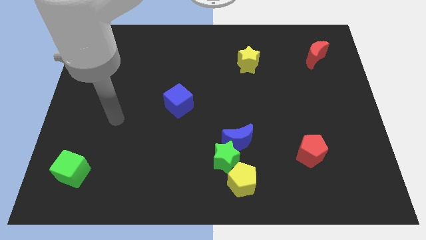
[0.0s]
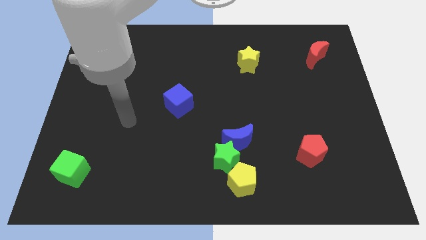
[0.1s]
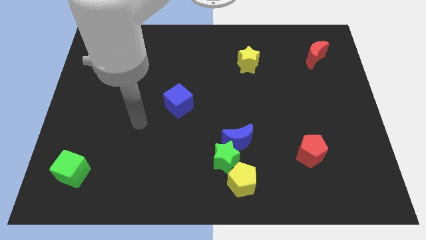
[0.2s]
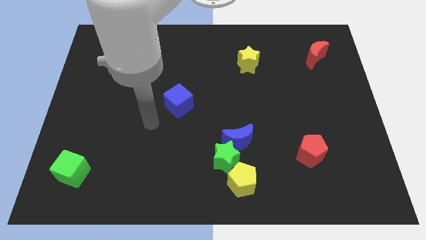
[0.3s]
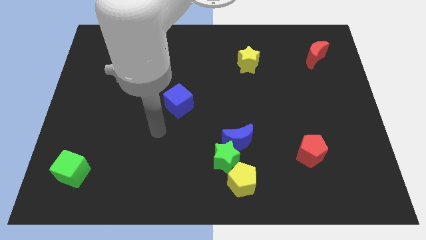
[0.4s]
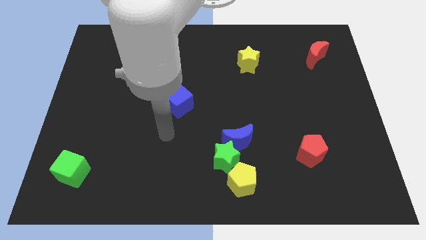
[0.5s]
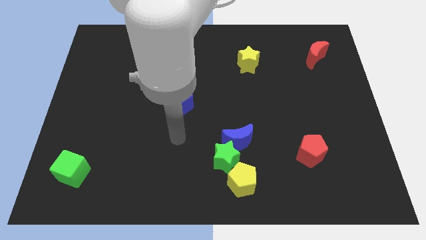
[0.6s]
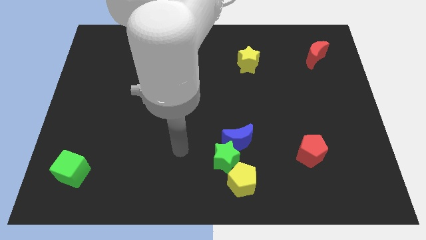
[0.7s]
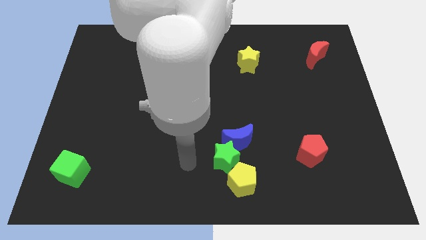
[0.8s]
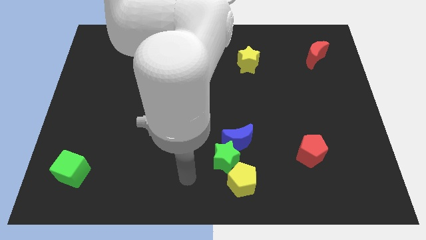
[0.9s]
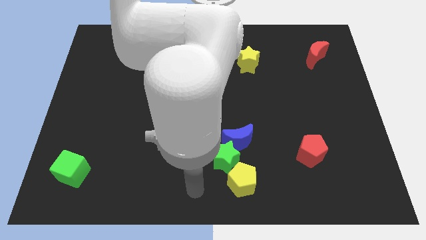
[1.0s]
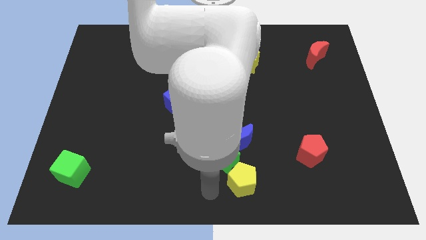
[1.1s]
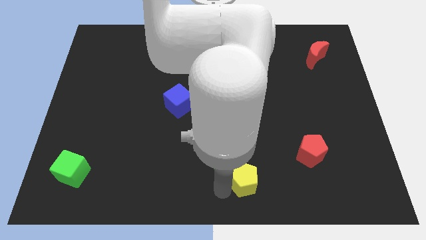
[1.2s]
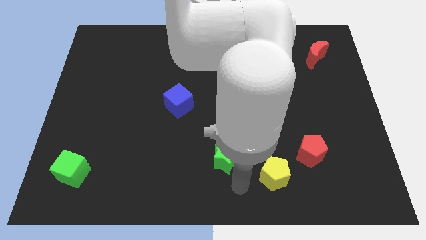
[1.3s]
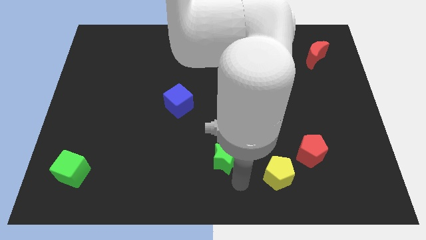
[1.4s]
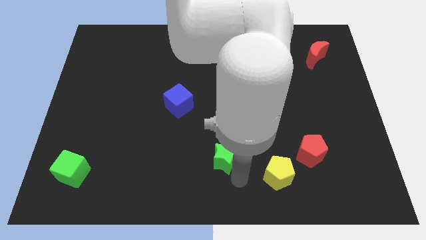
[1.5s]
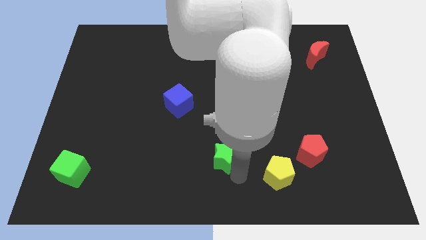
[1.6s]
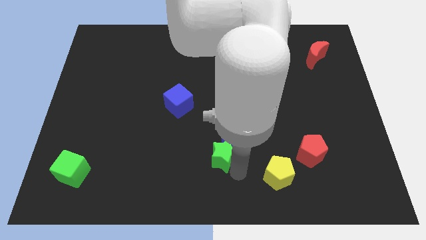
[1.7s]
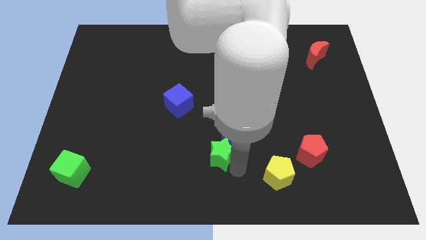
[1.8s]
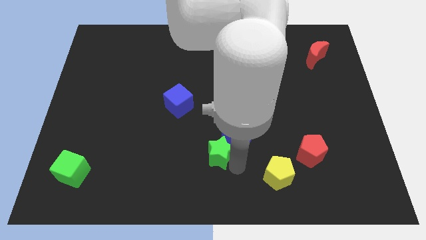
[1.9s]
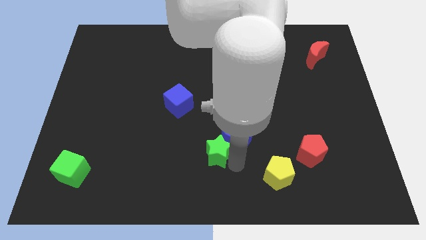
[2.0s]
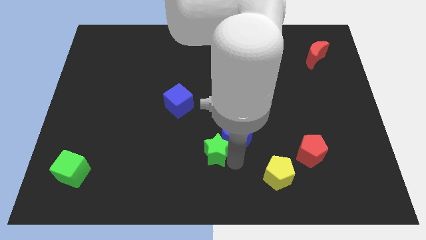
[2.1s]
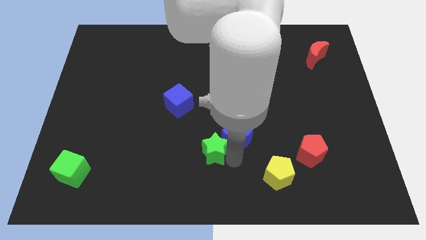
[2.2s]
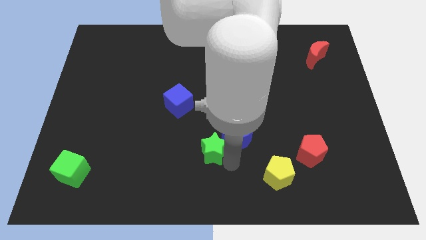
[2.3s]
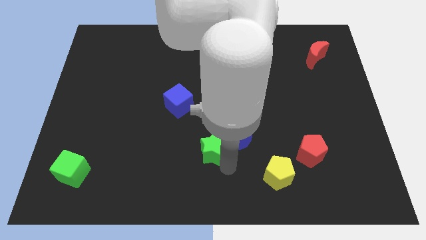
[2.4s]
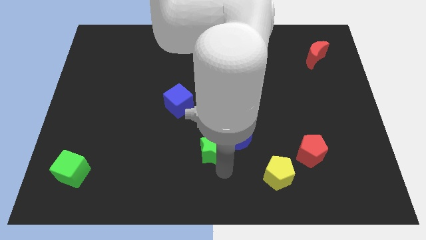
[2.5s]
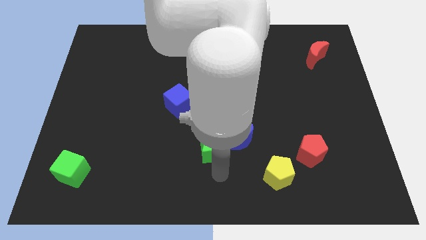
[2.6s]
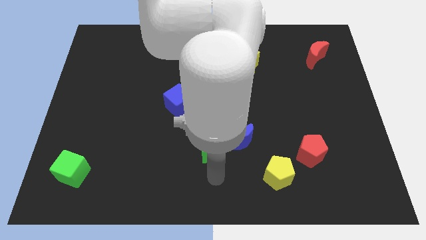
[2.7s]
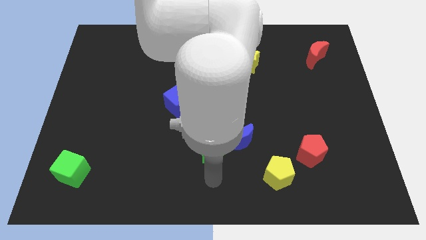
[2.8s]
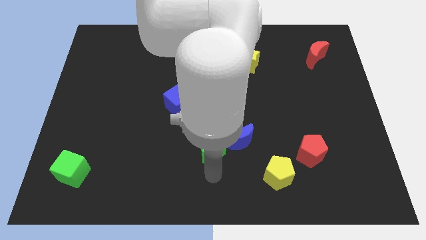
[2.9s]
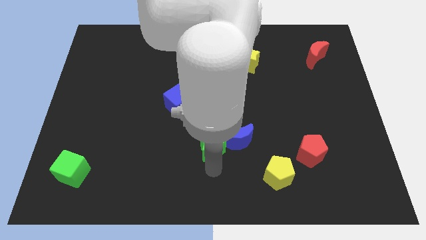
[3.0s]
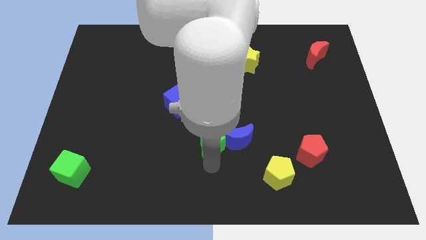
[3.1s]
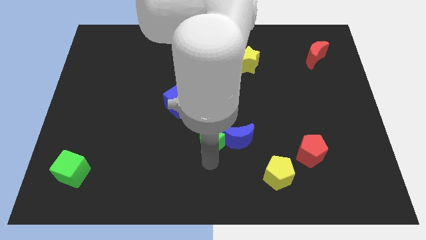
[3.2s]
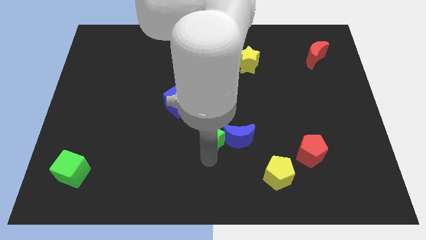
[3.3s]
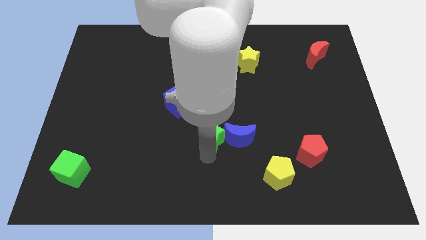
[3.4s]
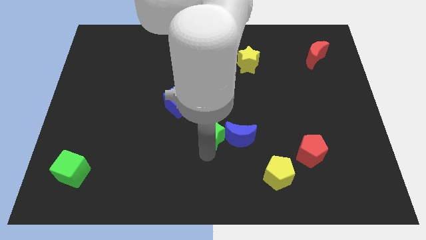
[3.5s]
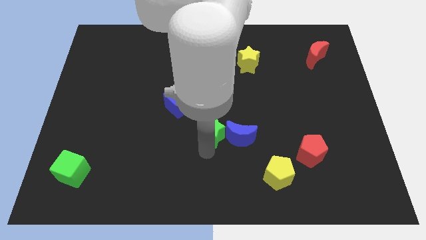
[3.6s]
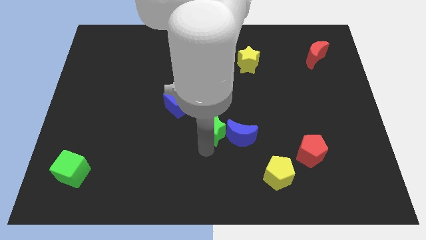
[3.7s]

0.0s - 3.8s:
move the green star slightly up

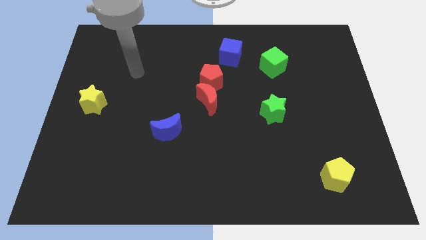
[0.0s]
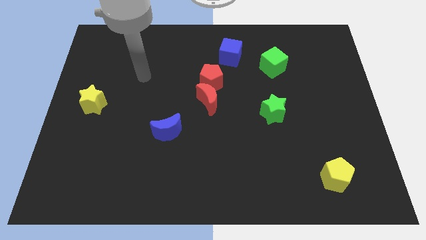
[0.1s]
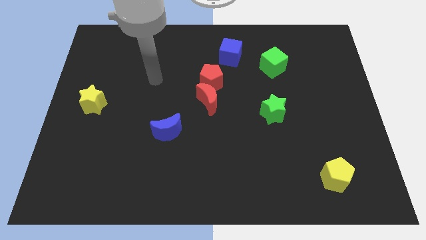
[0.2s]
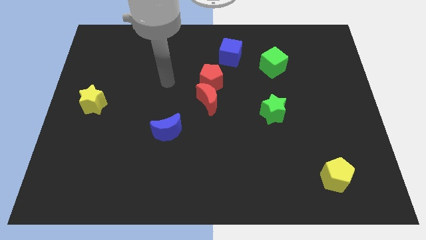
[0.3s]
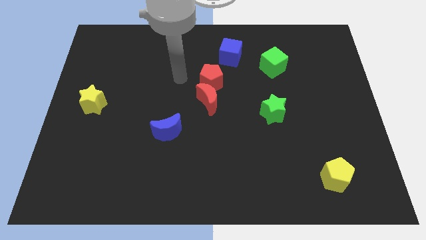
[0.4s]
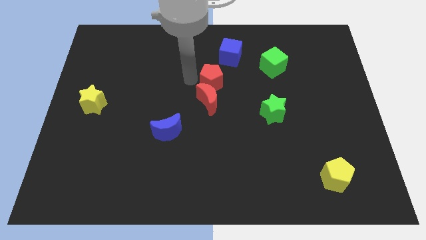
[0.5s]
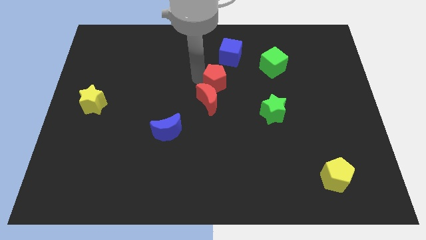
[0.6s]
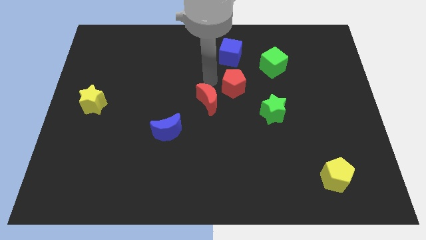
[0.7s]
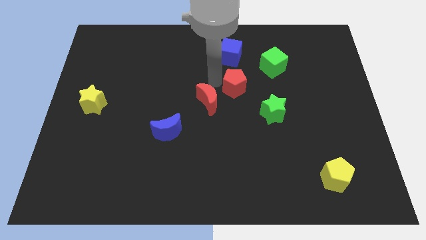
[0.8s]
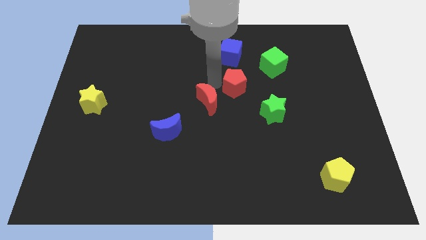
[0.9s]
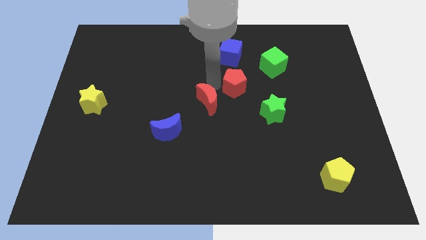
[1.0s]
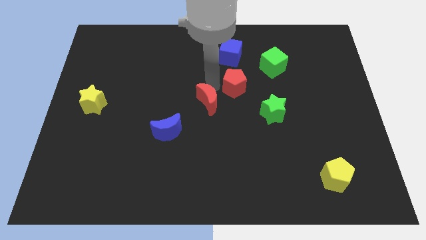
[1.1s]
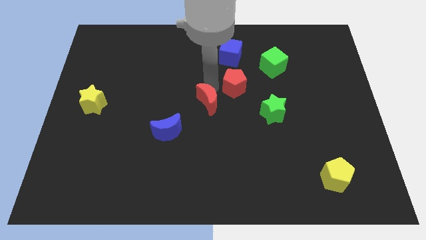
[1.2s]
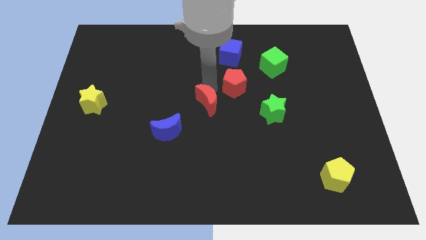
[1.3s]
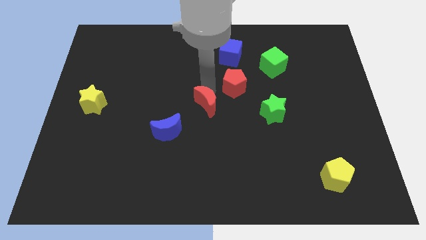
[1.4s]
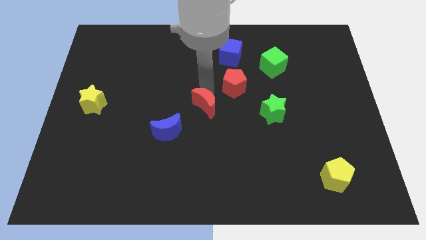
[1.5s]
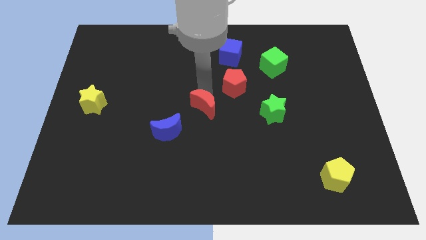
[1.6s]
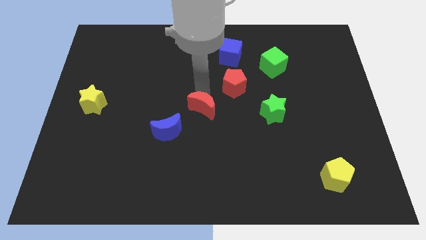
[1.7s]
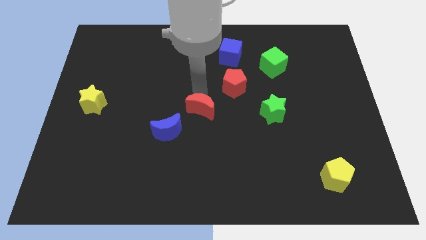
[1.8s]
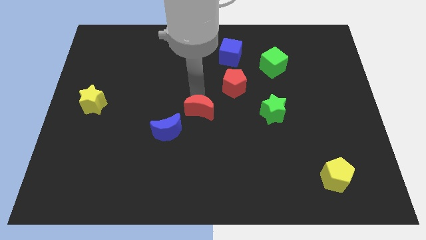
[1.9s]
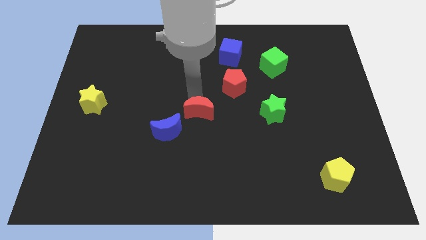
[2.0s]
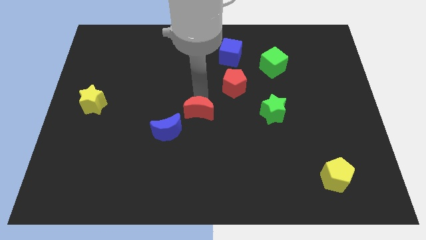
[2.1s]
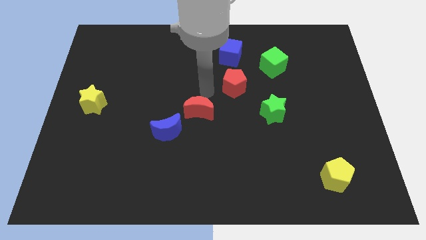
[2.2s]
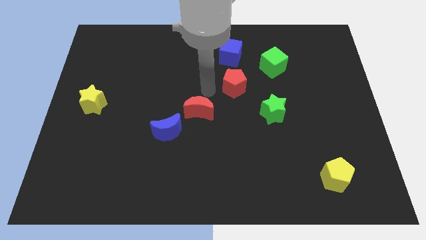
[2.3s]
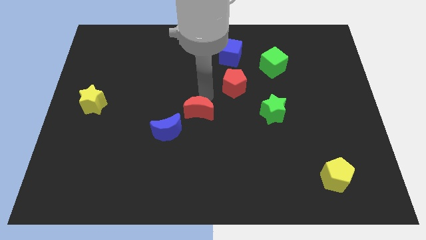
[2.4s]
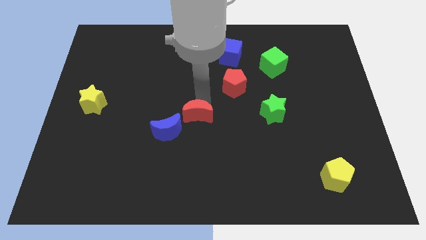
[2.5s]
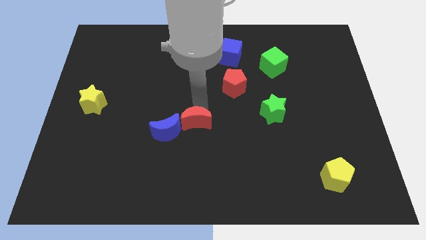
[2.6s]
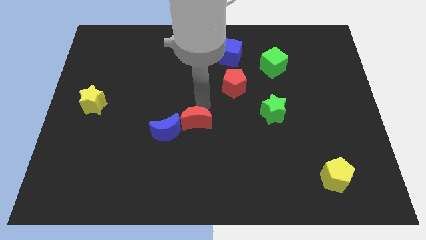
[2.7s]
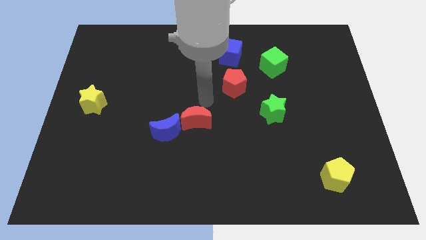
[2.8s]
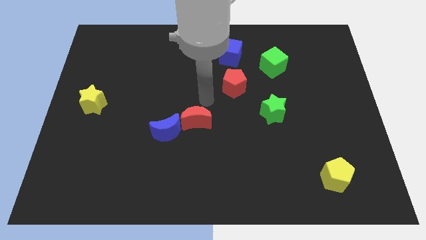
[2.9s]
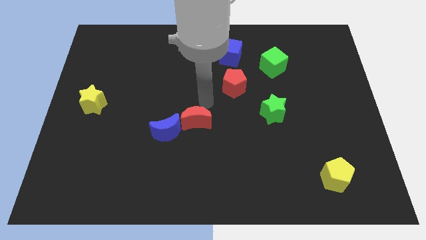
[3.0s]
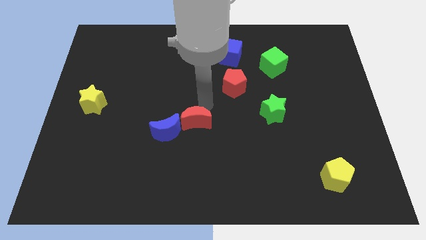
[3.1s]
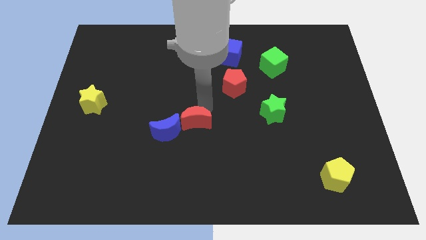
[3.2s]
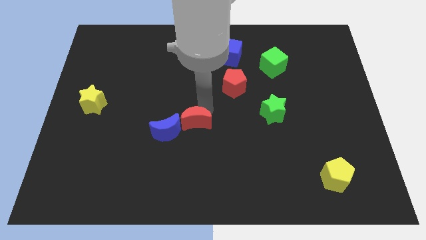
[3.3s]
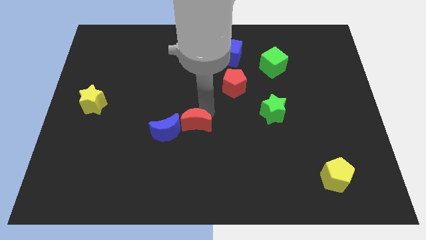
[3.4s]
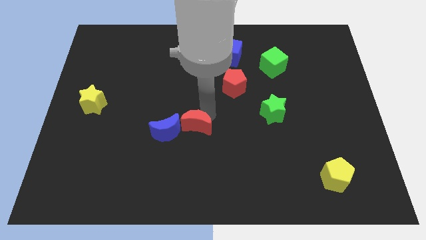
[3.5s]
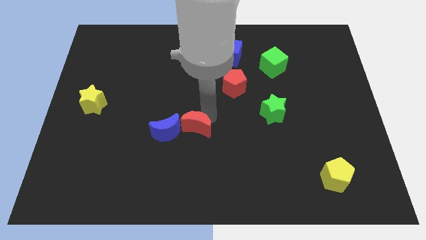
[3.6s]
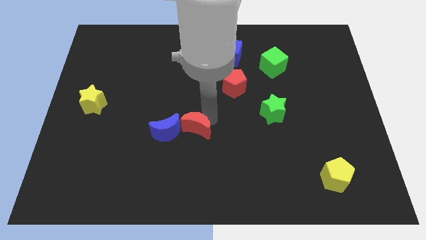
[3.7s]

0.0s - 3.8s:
move the red moon diagonally down and left a little bit

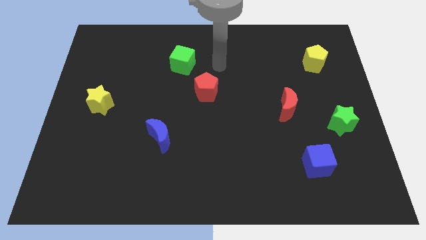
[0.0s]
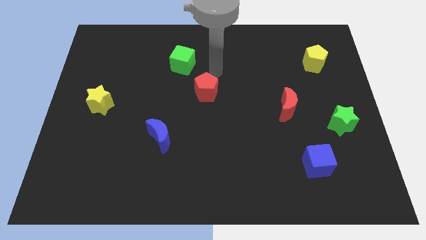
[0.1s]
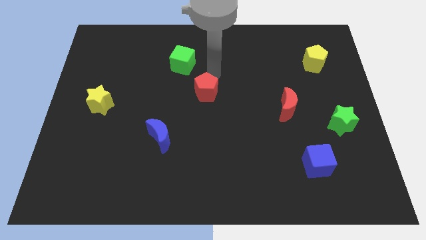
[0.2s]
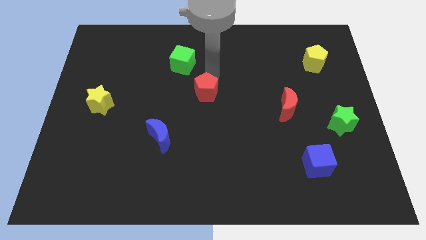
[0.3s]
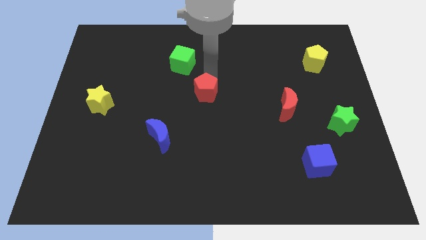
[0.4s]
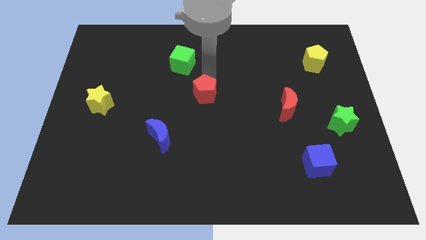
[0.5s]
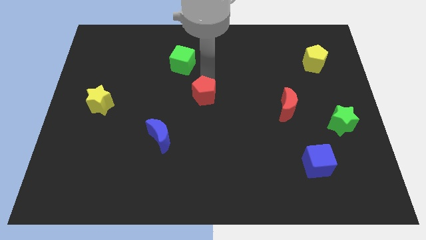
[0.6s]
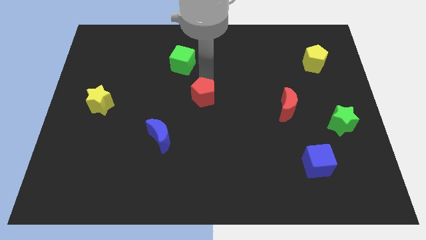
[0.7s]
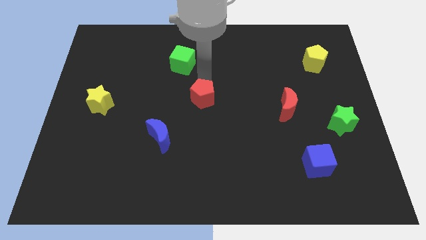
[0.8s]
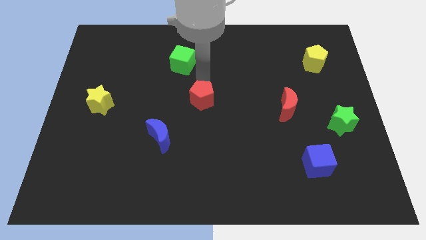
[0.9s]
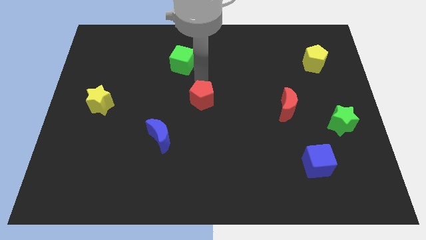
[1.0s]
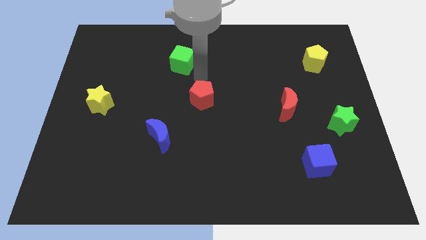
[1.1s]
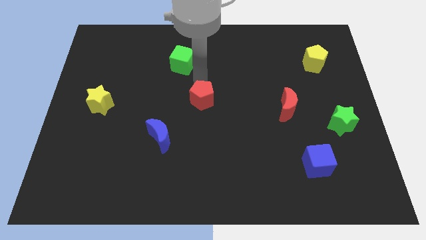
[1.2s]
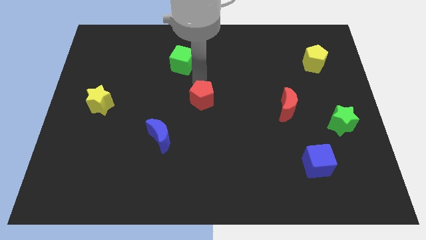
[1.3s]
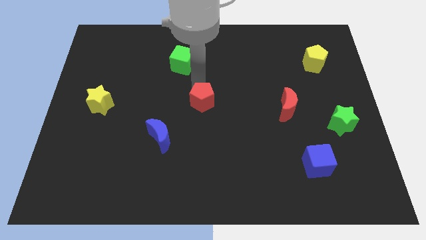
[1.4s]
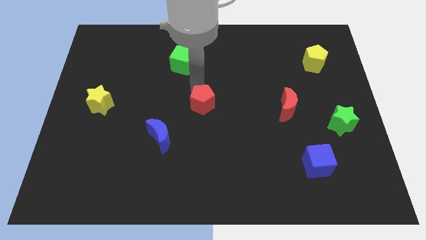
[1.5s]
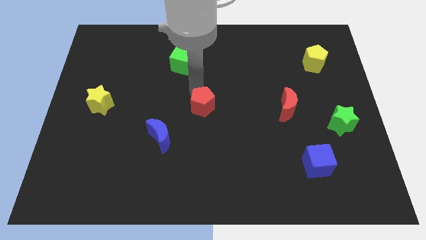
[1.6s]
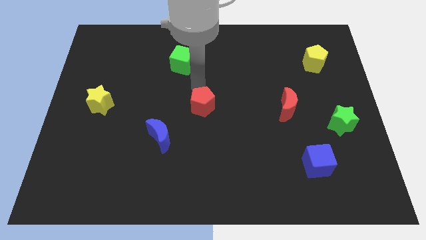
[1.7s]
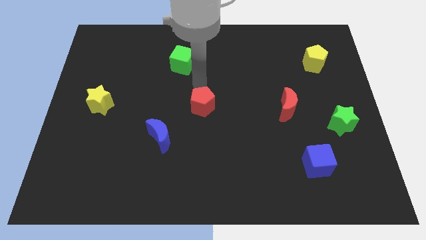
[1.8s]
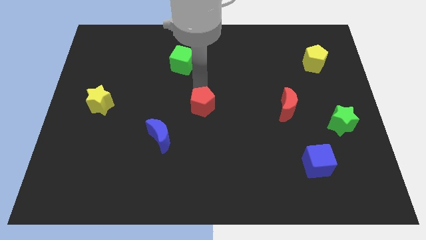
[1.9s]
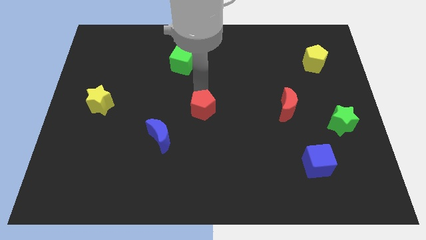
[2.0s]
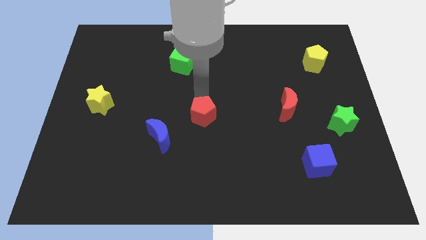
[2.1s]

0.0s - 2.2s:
slightly move the red pentagon downwards
